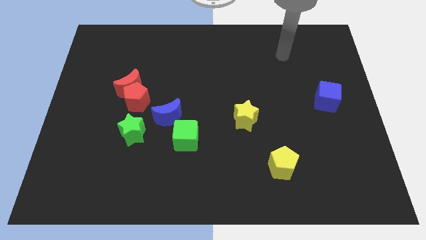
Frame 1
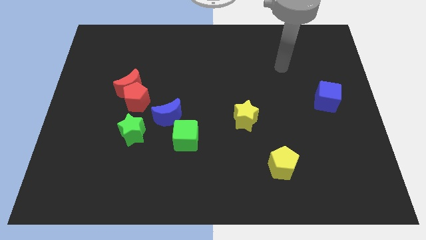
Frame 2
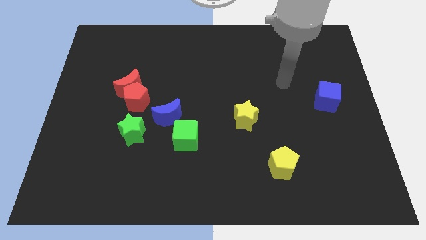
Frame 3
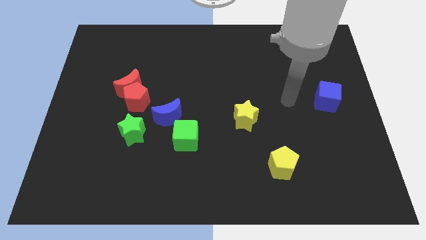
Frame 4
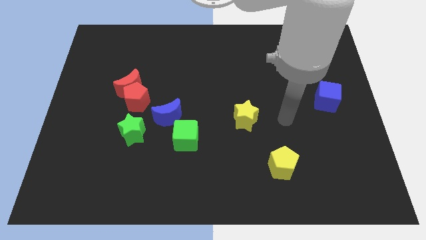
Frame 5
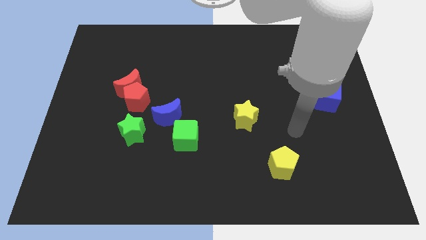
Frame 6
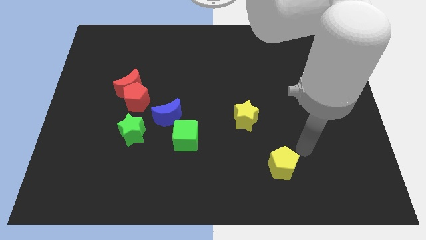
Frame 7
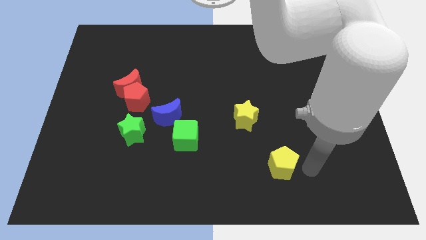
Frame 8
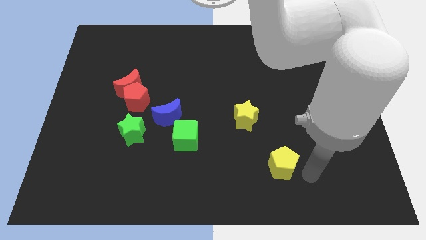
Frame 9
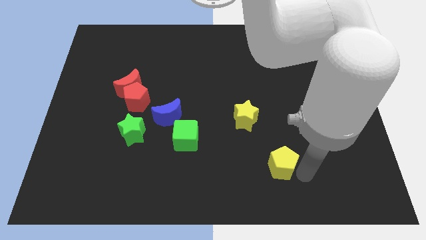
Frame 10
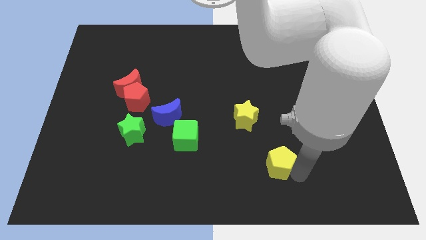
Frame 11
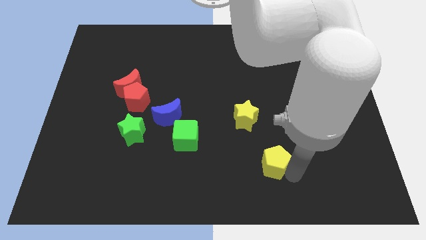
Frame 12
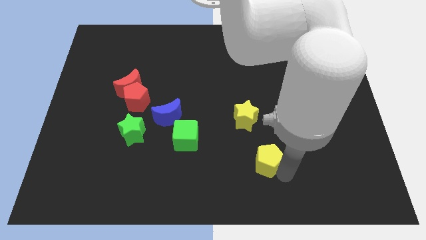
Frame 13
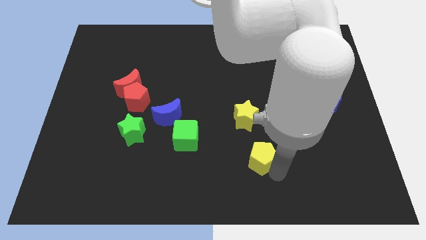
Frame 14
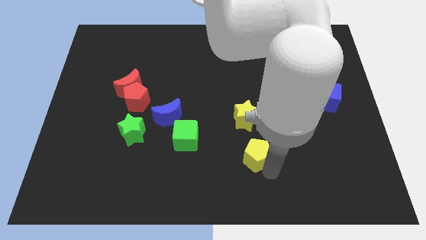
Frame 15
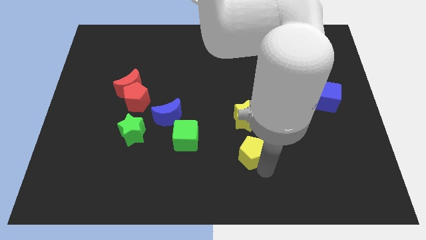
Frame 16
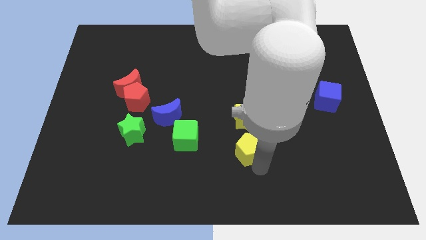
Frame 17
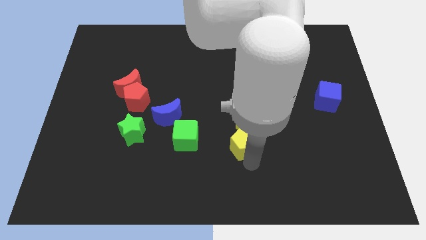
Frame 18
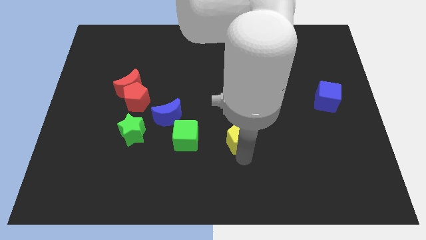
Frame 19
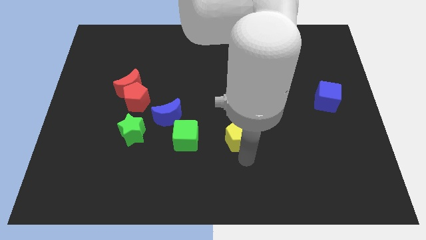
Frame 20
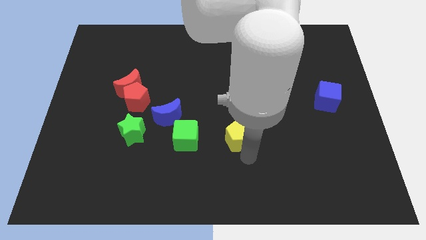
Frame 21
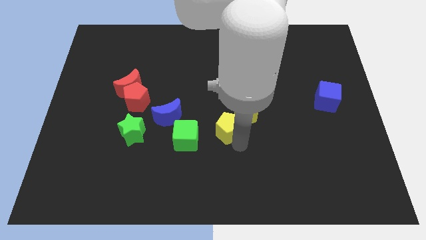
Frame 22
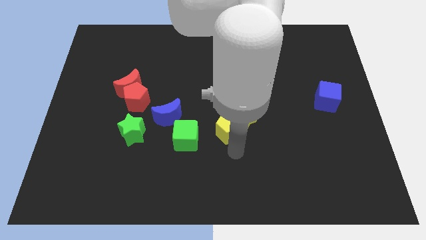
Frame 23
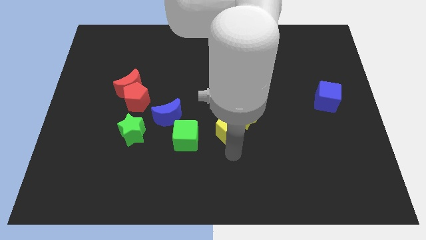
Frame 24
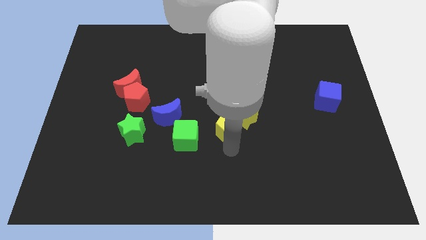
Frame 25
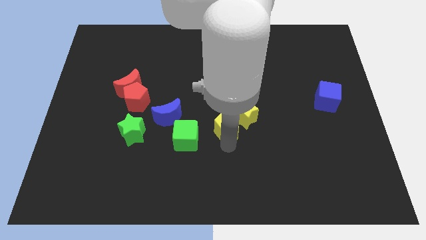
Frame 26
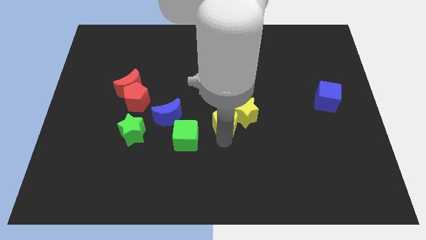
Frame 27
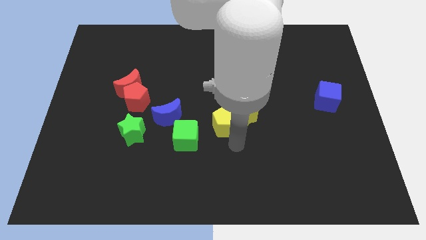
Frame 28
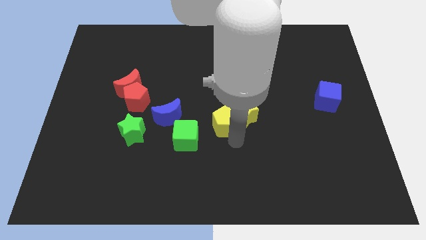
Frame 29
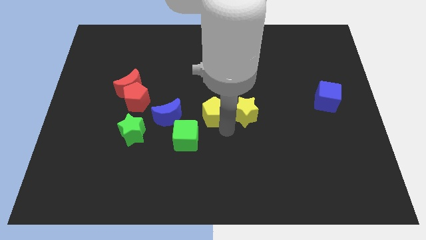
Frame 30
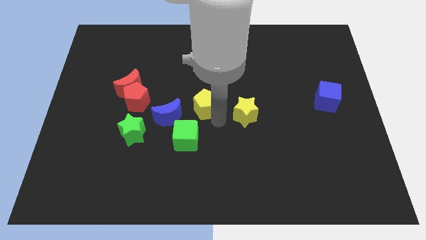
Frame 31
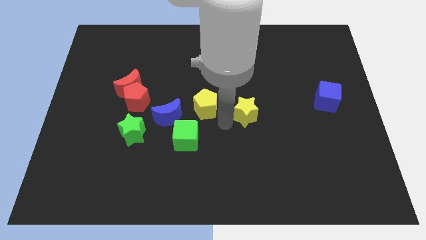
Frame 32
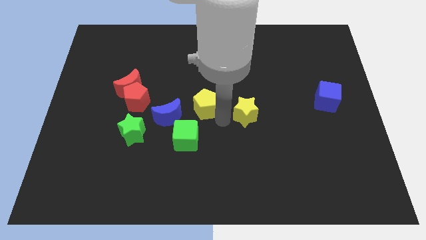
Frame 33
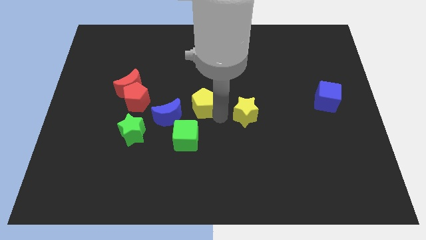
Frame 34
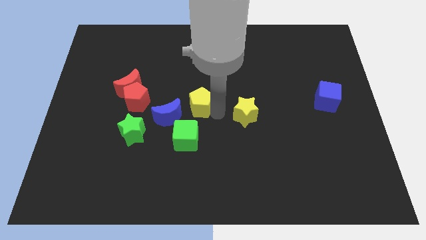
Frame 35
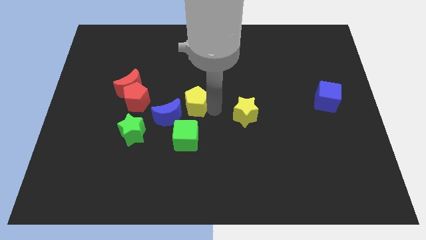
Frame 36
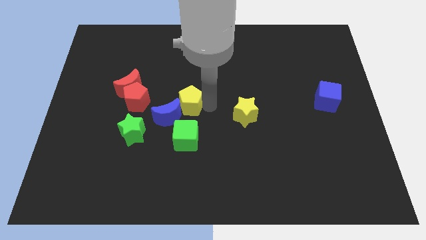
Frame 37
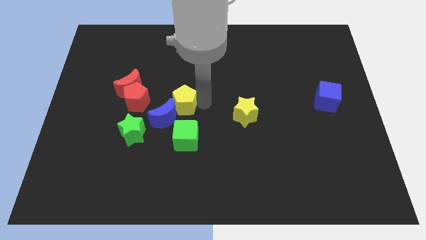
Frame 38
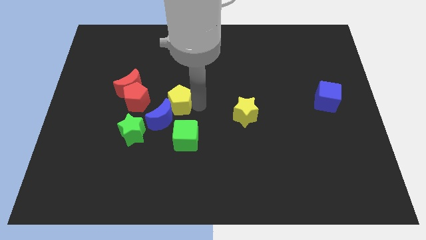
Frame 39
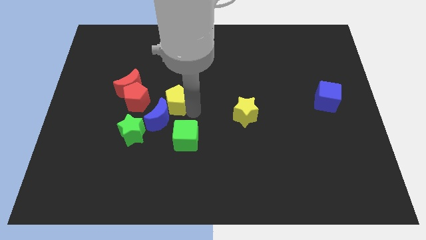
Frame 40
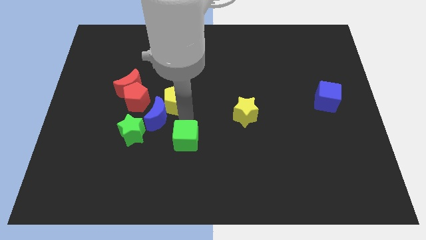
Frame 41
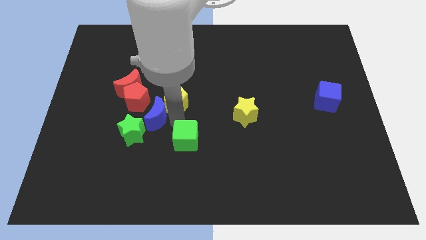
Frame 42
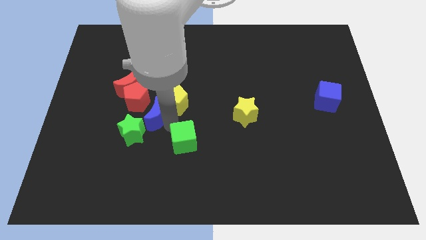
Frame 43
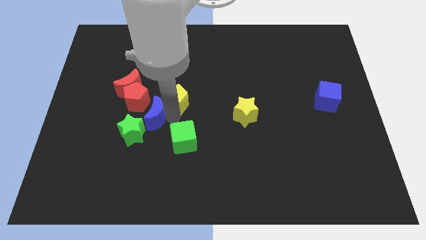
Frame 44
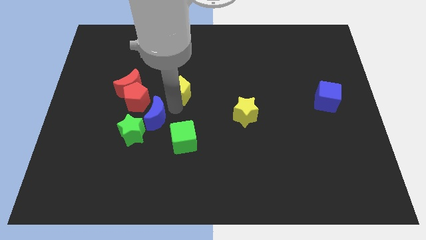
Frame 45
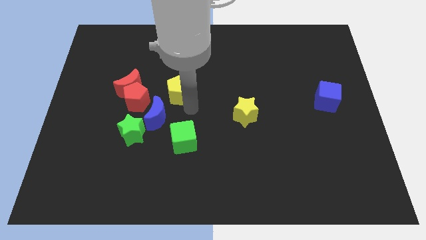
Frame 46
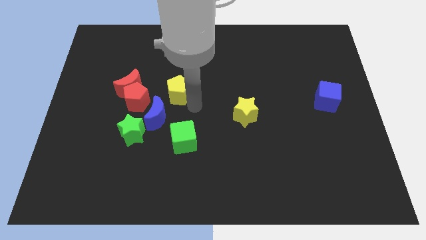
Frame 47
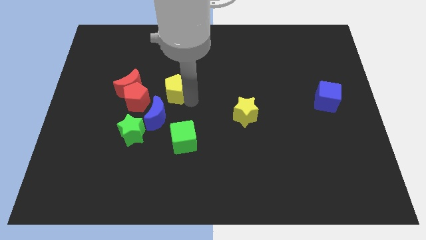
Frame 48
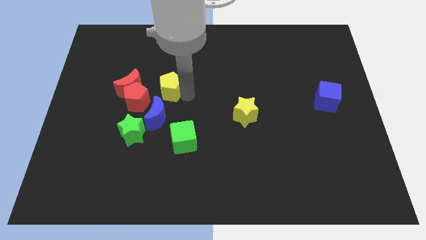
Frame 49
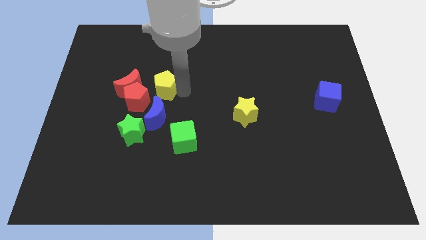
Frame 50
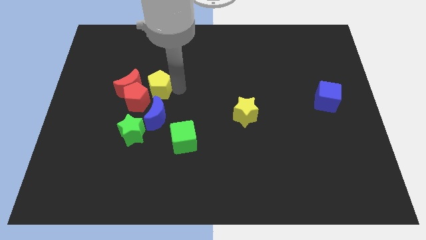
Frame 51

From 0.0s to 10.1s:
move the yellow pentagon to the top right side of the red moon

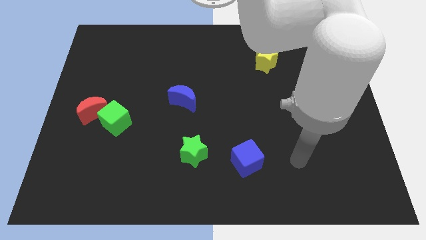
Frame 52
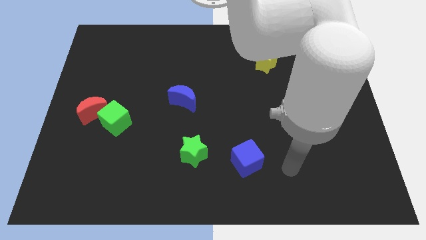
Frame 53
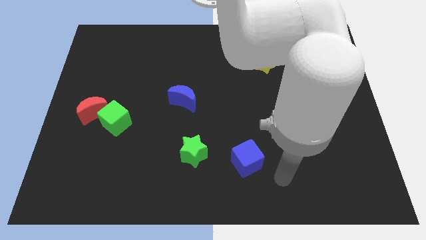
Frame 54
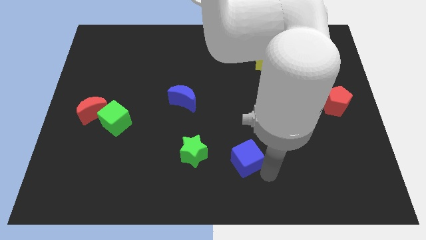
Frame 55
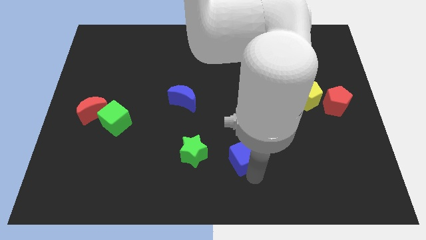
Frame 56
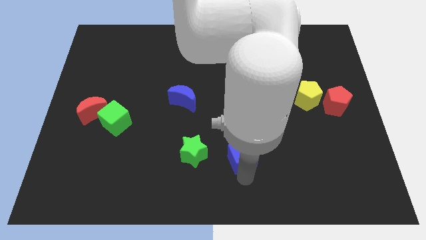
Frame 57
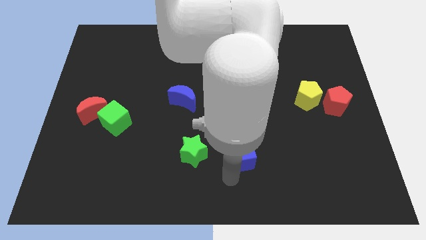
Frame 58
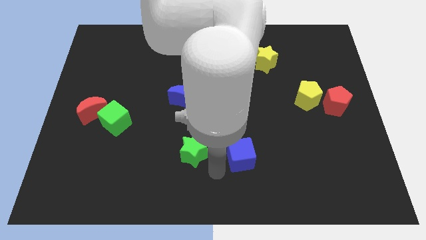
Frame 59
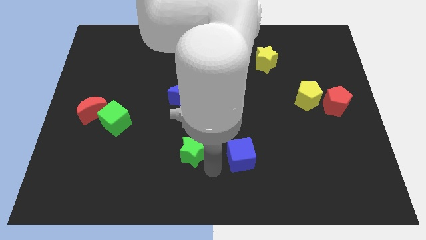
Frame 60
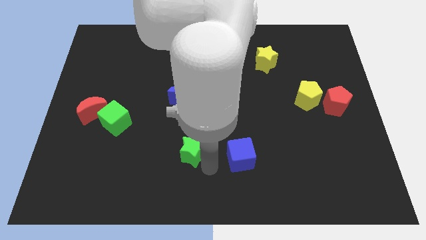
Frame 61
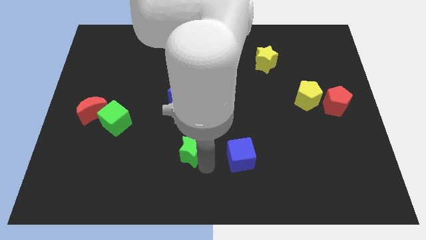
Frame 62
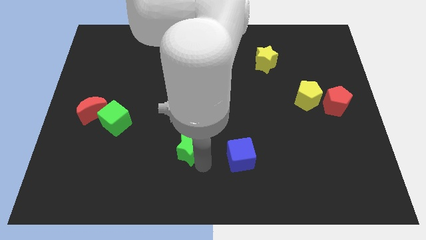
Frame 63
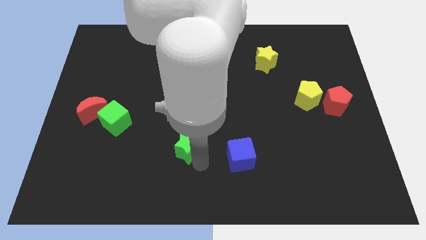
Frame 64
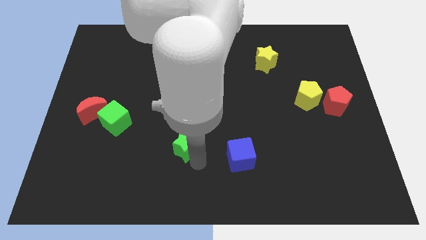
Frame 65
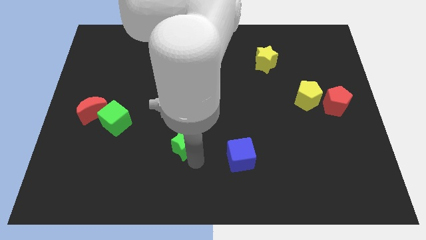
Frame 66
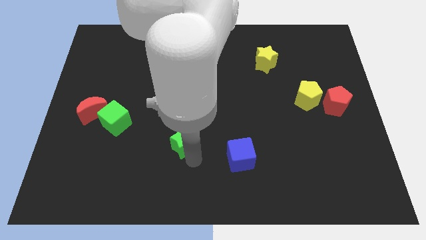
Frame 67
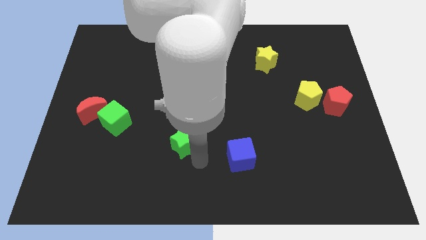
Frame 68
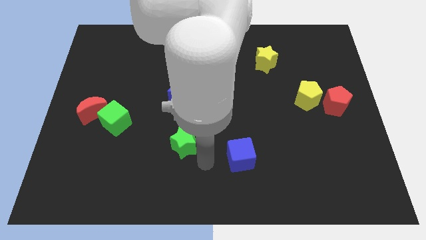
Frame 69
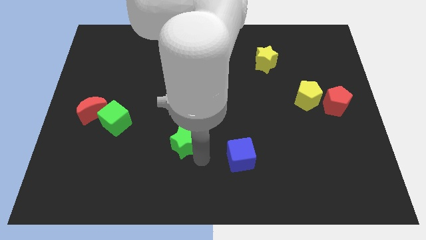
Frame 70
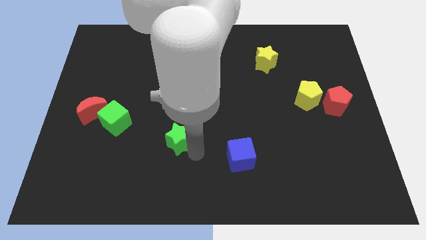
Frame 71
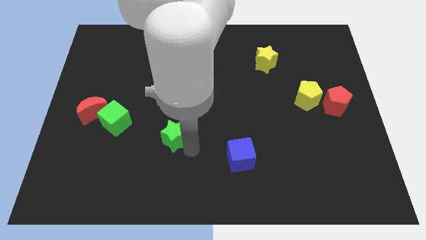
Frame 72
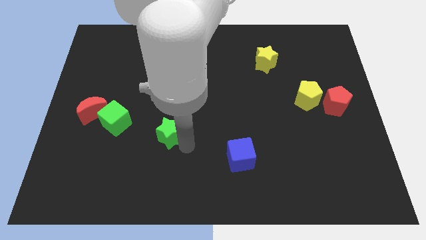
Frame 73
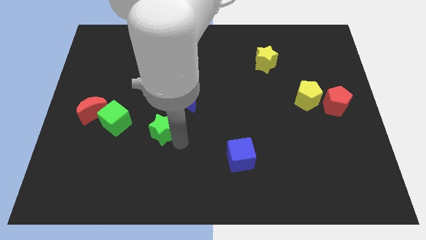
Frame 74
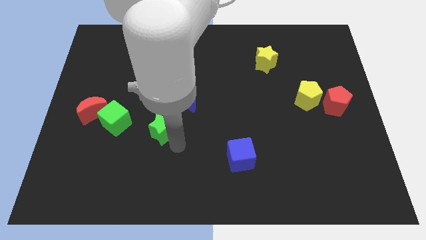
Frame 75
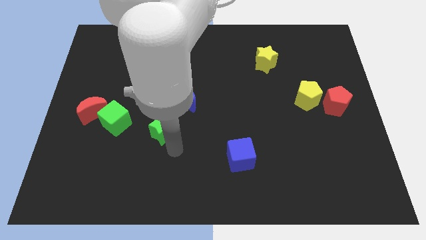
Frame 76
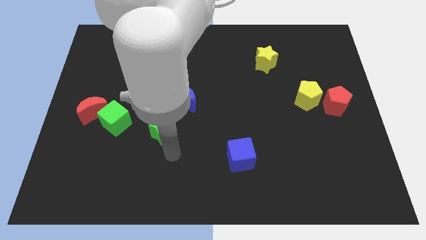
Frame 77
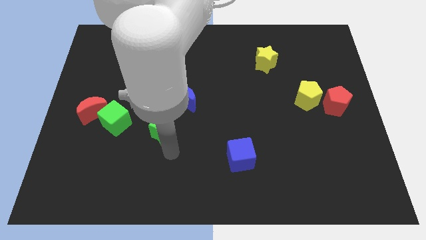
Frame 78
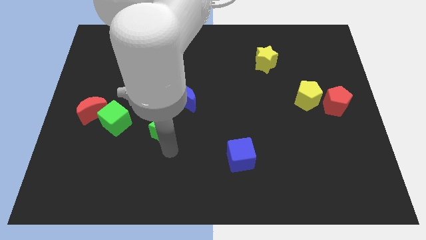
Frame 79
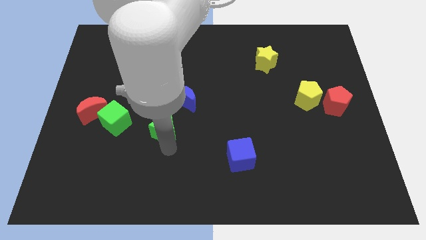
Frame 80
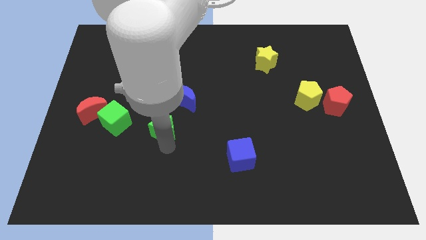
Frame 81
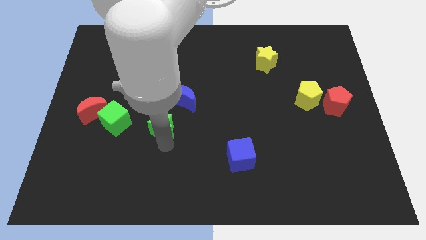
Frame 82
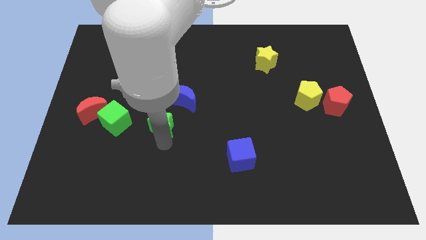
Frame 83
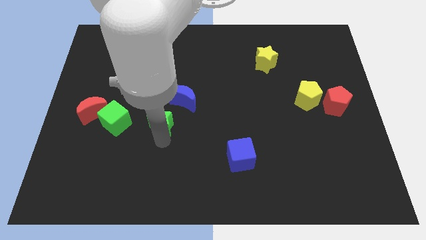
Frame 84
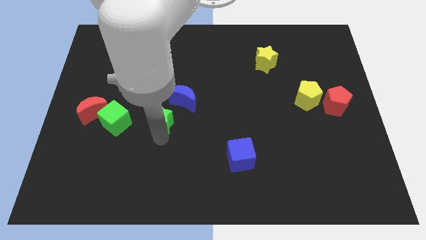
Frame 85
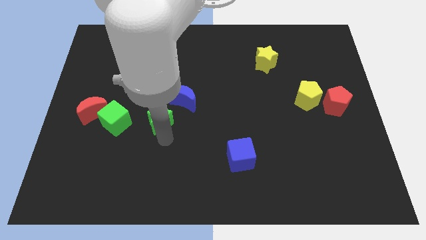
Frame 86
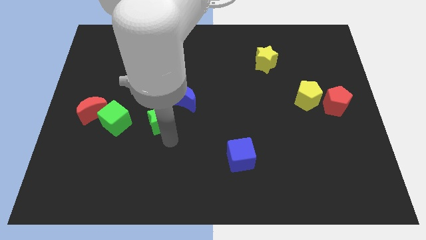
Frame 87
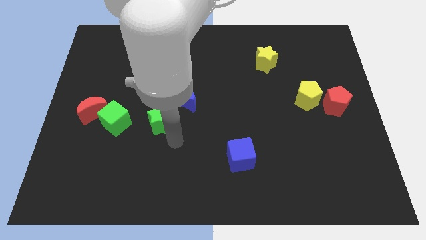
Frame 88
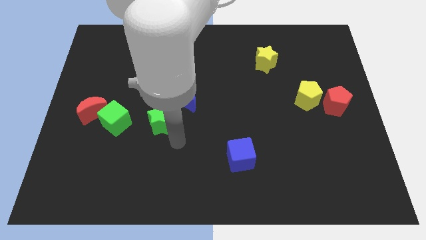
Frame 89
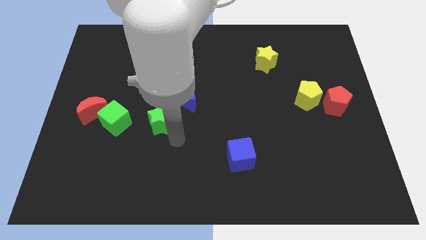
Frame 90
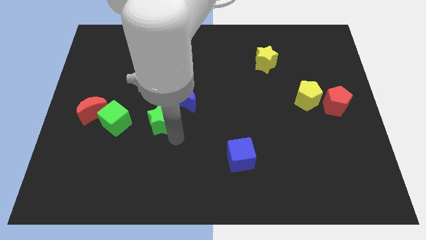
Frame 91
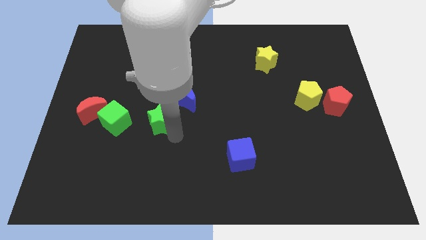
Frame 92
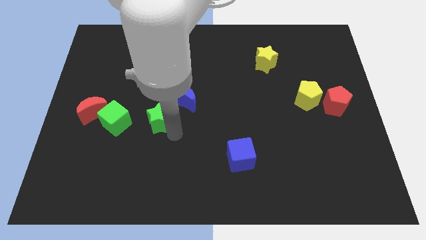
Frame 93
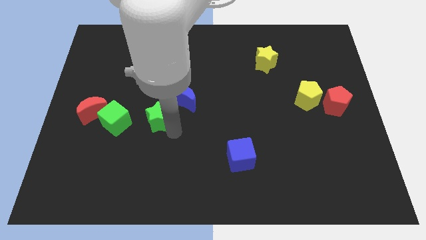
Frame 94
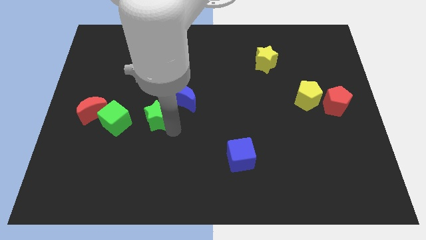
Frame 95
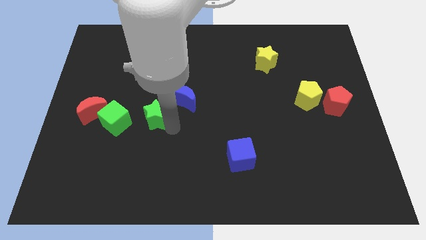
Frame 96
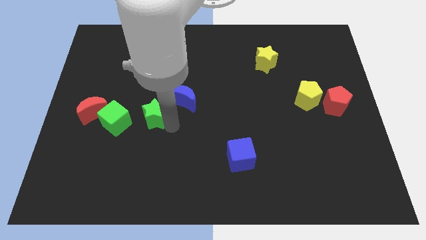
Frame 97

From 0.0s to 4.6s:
move the green star to the left of the blue moon
